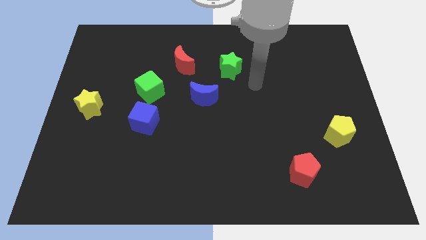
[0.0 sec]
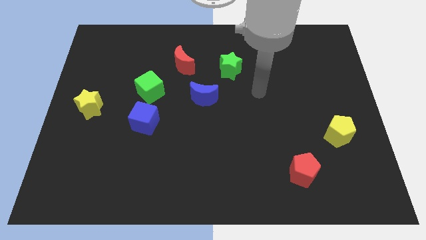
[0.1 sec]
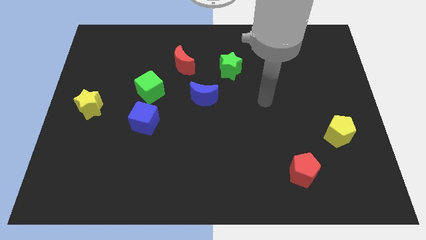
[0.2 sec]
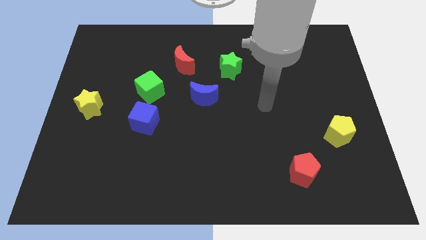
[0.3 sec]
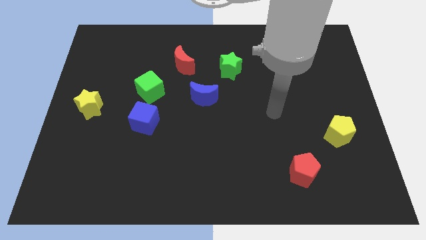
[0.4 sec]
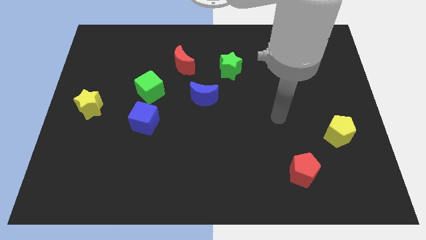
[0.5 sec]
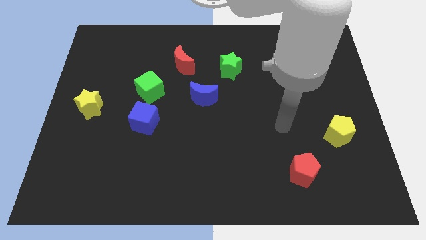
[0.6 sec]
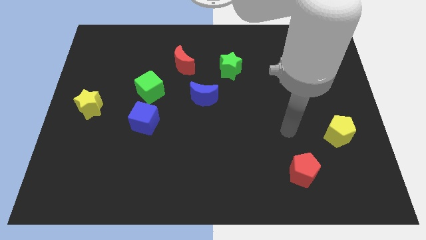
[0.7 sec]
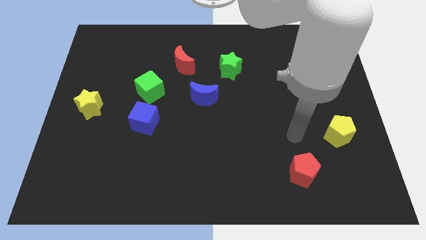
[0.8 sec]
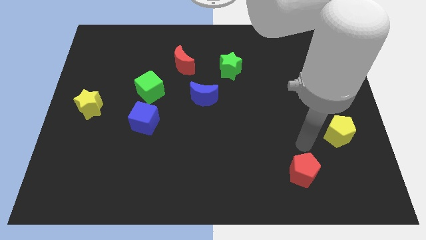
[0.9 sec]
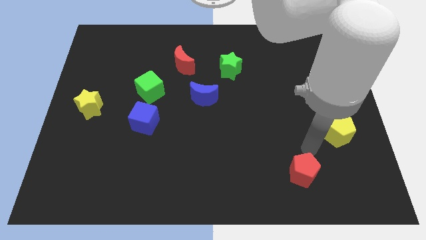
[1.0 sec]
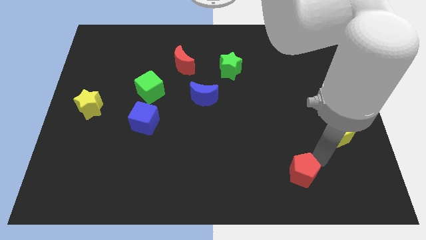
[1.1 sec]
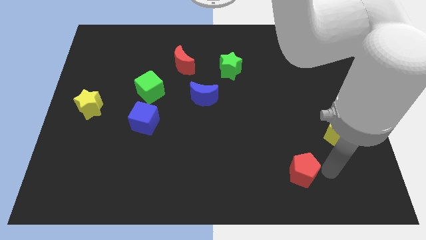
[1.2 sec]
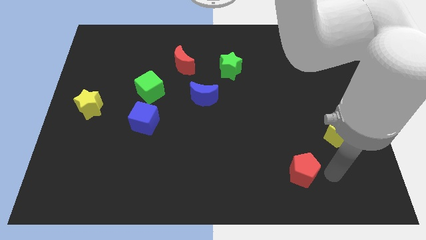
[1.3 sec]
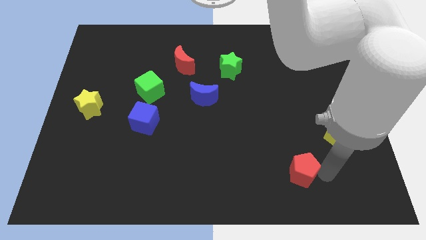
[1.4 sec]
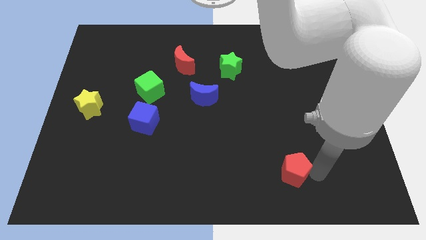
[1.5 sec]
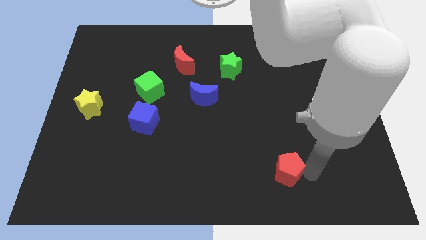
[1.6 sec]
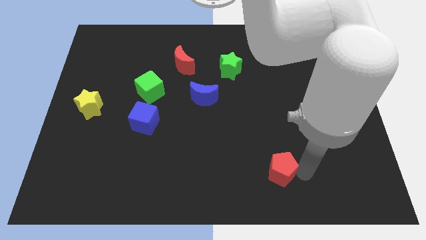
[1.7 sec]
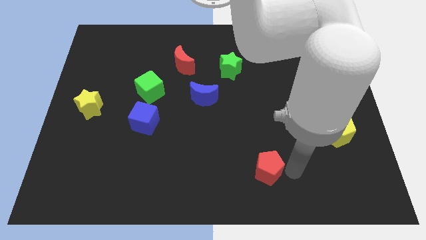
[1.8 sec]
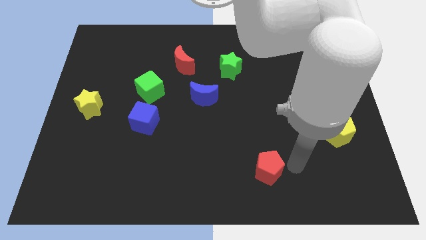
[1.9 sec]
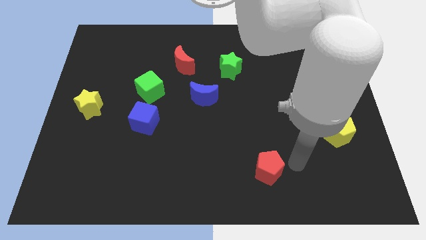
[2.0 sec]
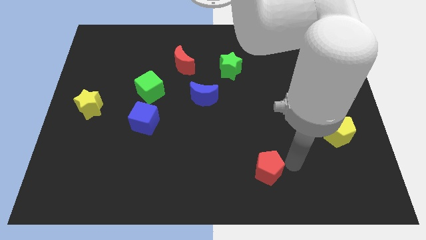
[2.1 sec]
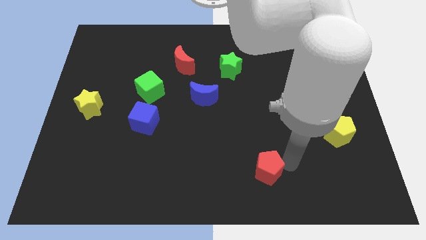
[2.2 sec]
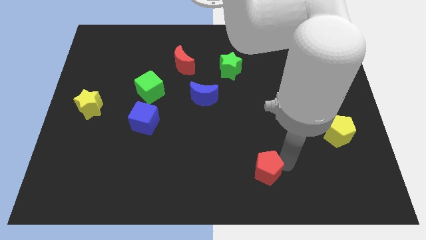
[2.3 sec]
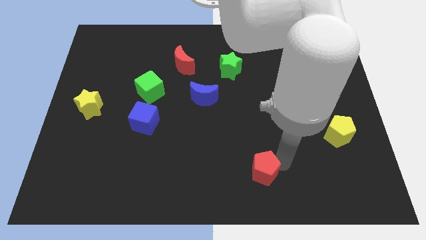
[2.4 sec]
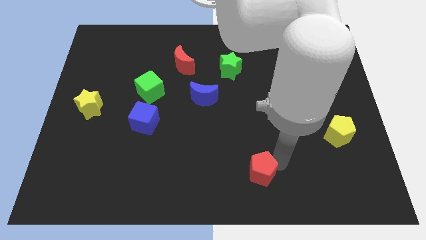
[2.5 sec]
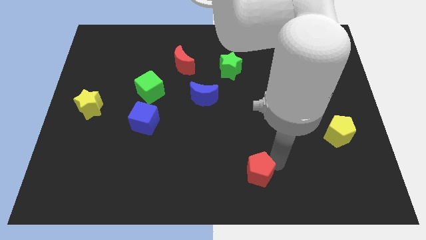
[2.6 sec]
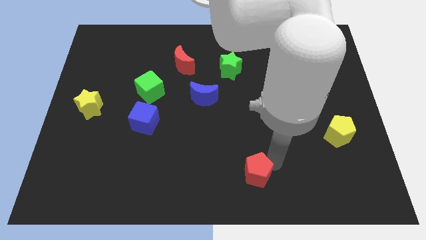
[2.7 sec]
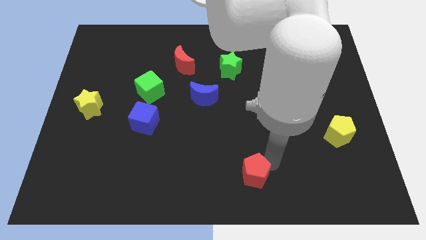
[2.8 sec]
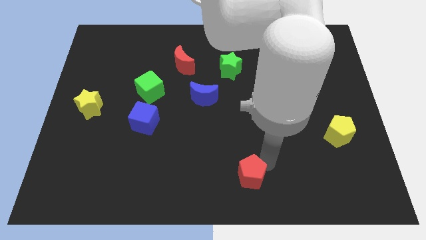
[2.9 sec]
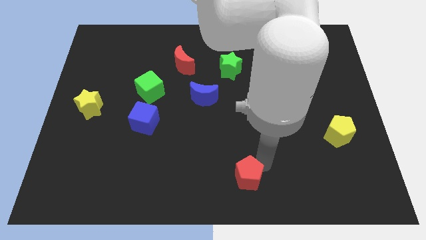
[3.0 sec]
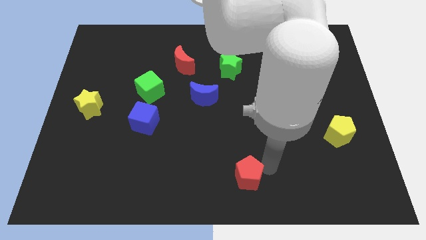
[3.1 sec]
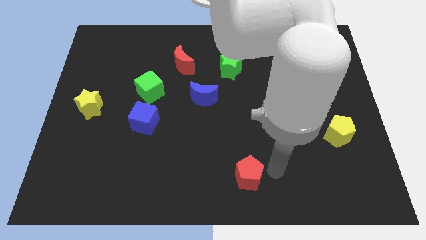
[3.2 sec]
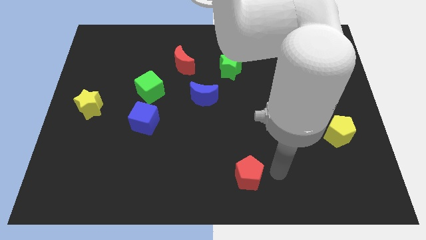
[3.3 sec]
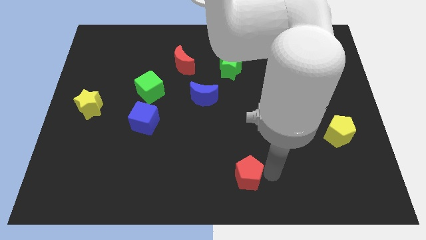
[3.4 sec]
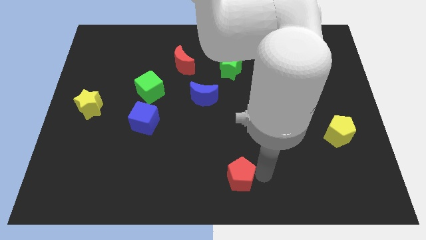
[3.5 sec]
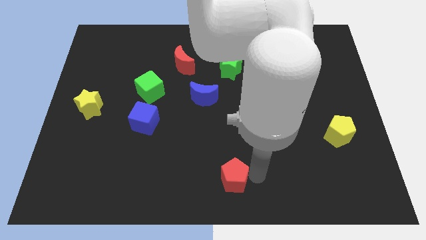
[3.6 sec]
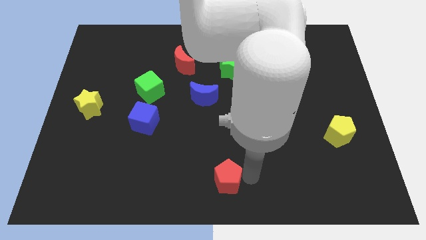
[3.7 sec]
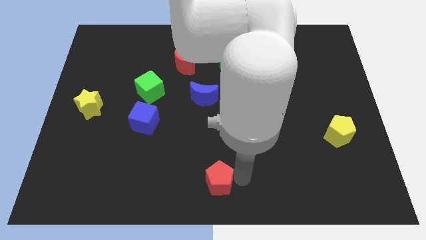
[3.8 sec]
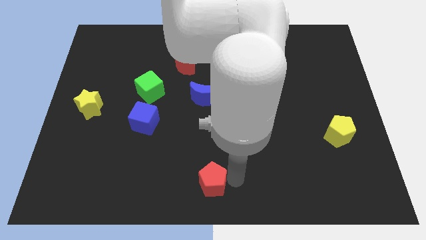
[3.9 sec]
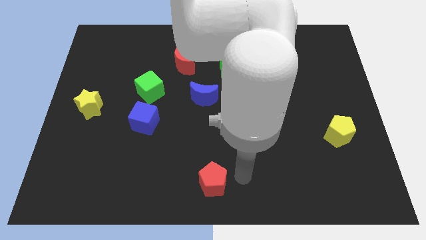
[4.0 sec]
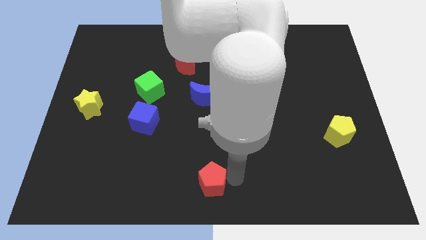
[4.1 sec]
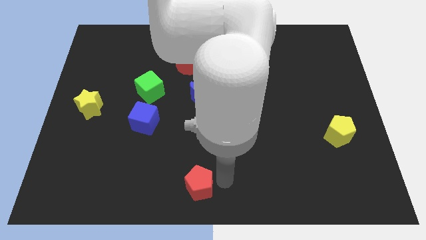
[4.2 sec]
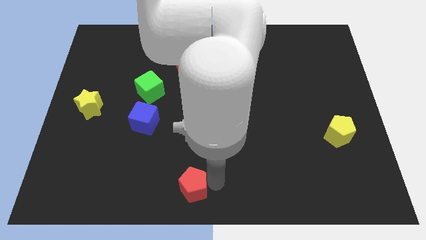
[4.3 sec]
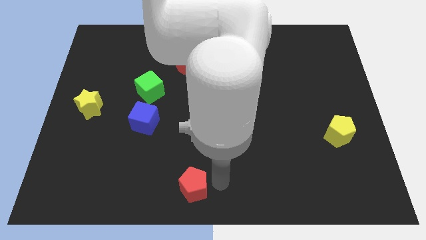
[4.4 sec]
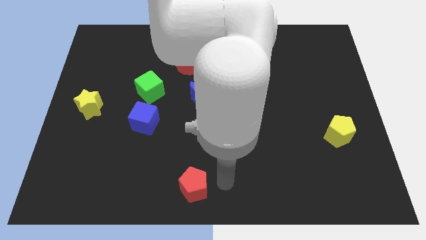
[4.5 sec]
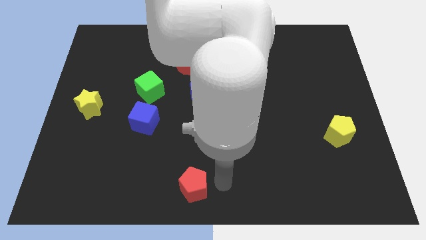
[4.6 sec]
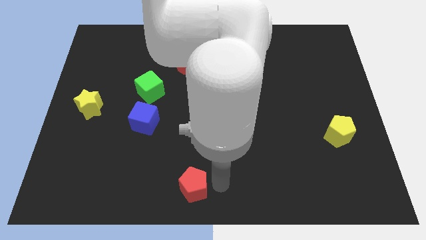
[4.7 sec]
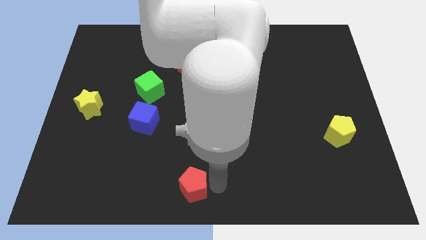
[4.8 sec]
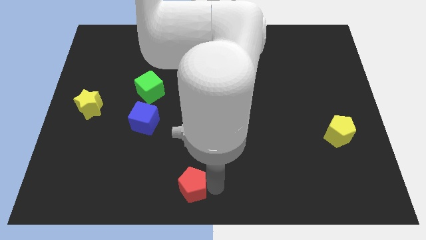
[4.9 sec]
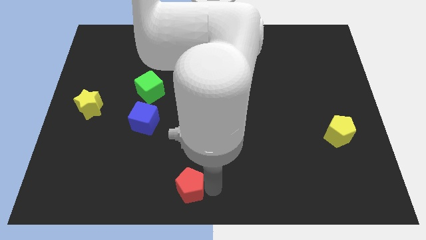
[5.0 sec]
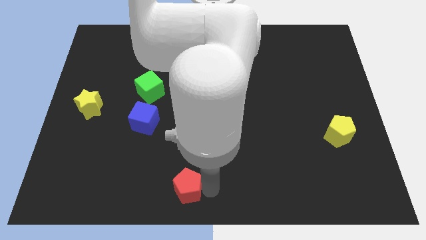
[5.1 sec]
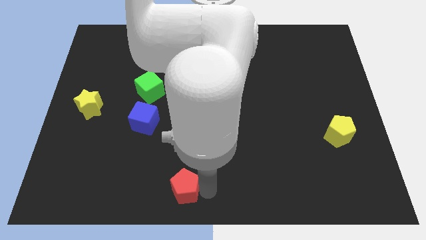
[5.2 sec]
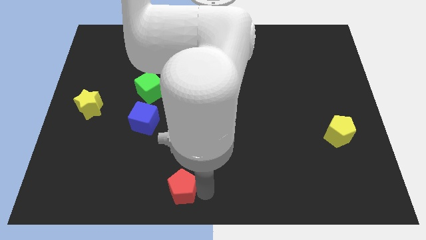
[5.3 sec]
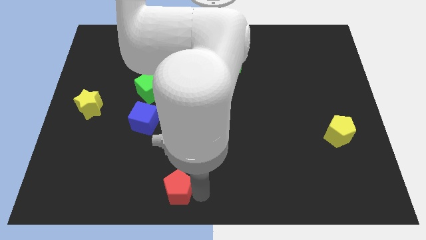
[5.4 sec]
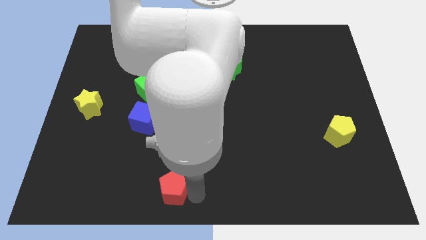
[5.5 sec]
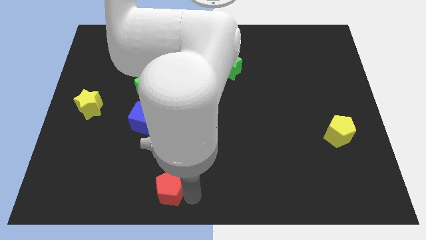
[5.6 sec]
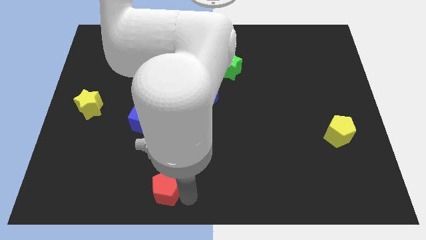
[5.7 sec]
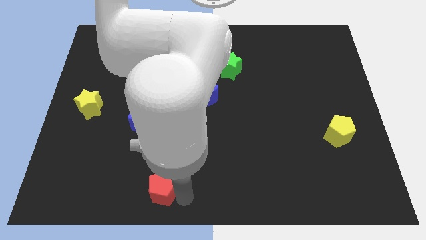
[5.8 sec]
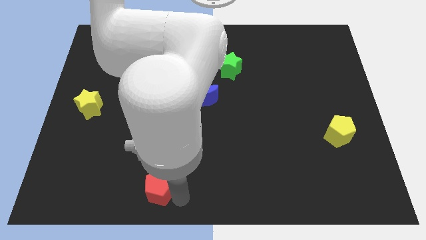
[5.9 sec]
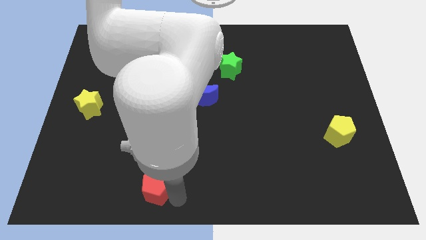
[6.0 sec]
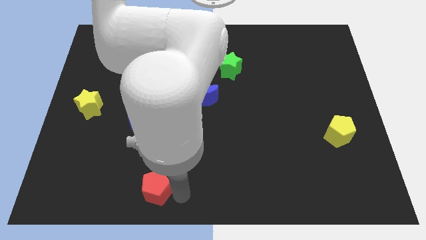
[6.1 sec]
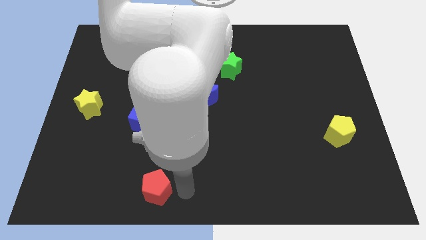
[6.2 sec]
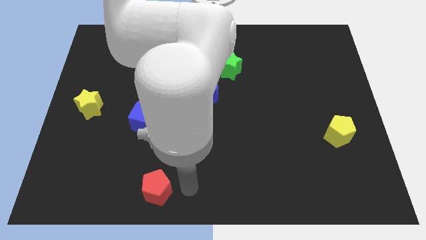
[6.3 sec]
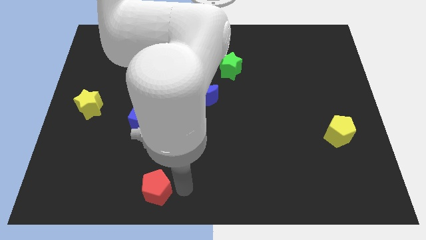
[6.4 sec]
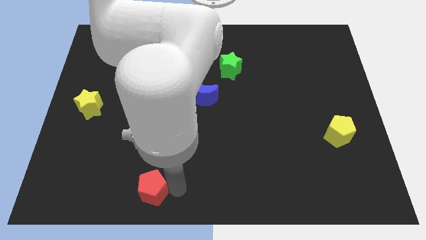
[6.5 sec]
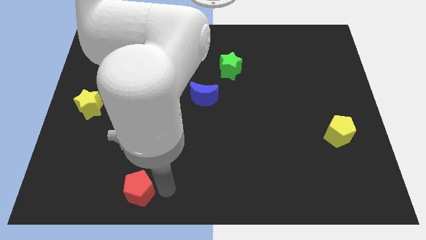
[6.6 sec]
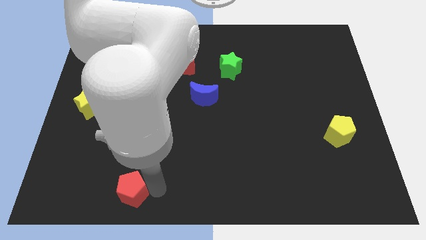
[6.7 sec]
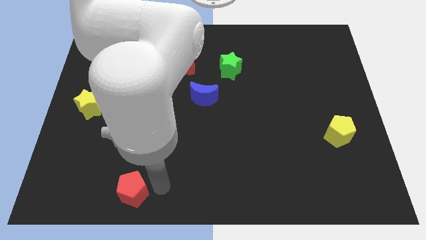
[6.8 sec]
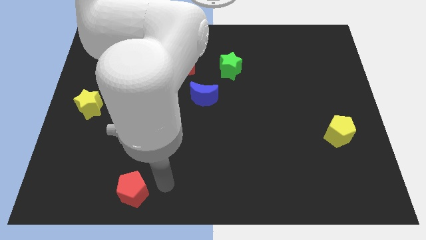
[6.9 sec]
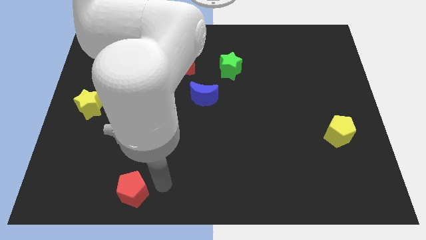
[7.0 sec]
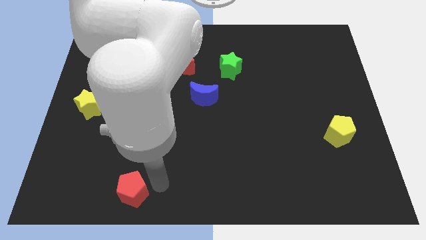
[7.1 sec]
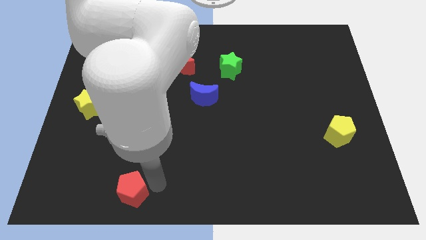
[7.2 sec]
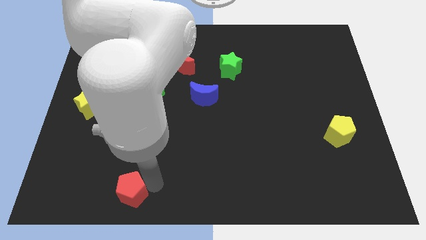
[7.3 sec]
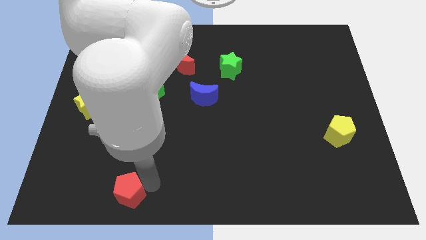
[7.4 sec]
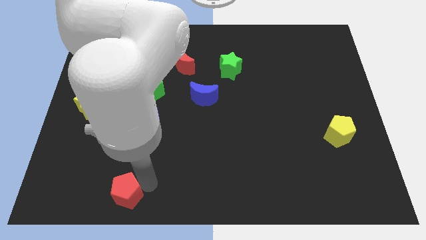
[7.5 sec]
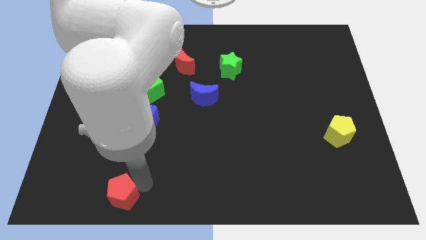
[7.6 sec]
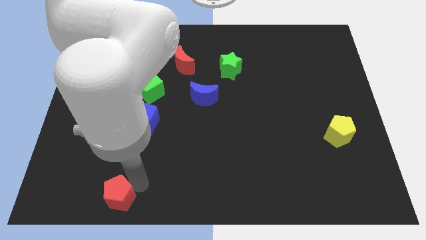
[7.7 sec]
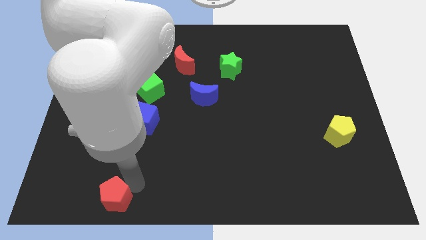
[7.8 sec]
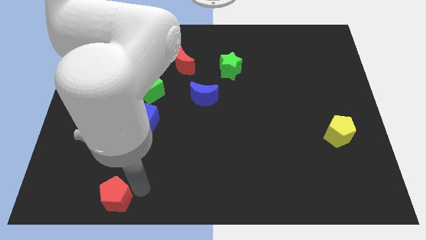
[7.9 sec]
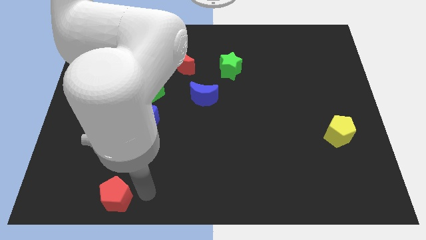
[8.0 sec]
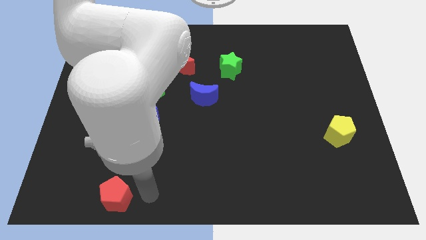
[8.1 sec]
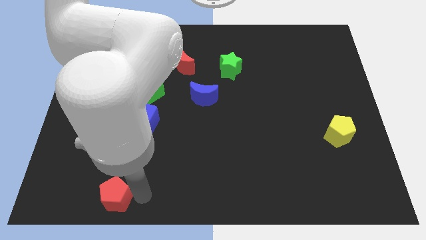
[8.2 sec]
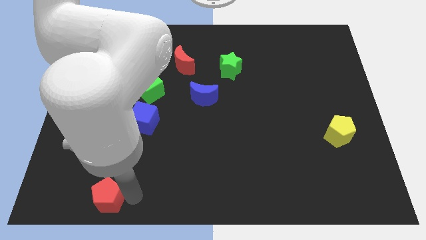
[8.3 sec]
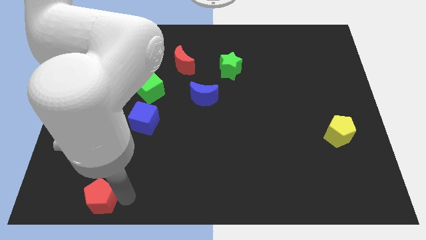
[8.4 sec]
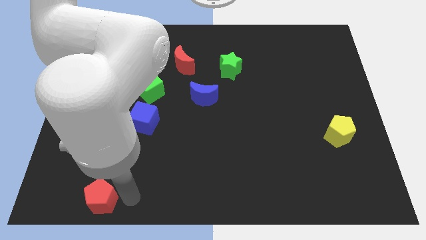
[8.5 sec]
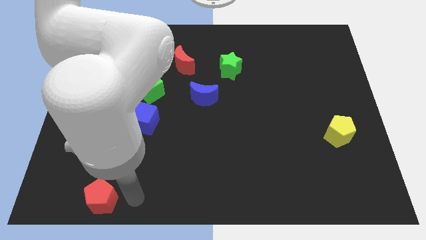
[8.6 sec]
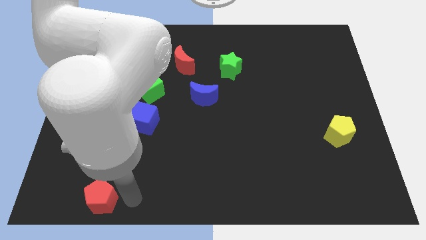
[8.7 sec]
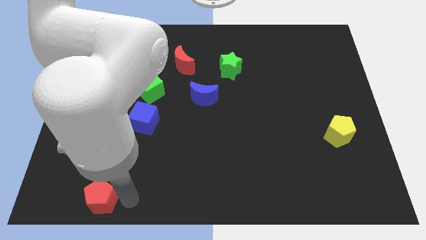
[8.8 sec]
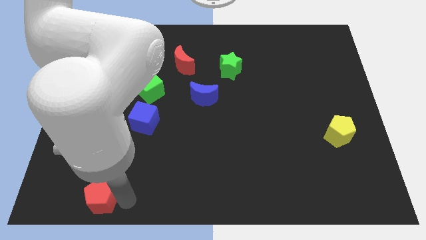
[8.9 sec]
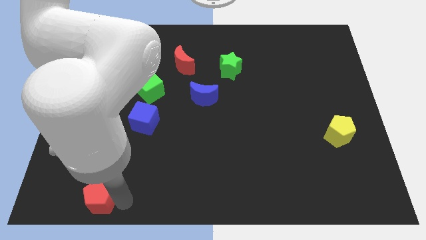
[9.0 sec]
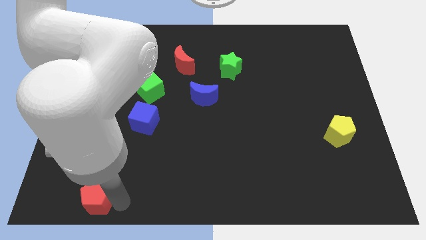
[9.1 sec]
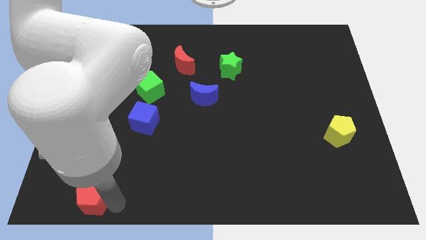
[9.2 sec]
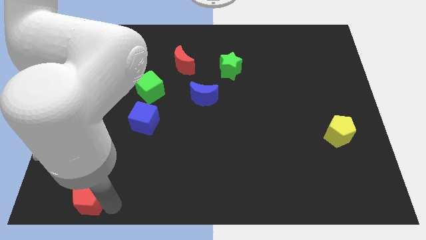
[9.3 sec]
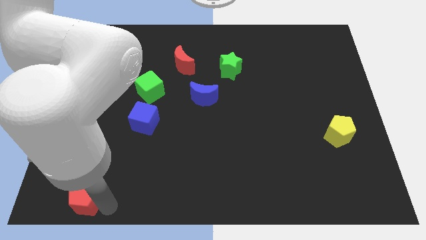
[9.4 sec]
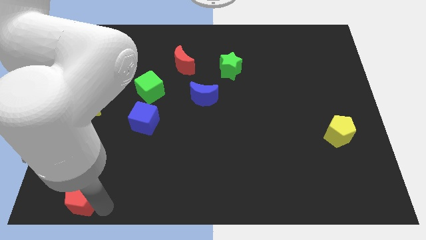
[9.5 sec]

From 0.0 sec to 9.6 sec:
put the red pentagon to the bottom left of the board
